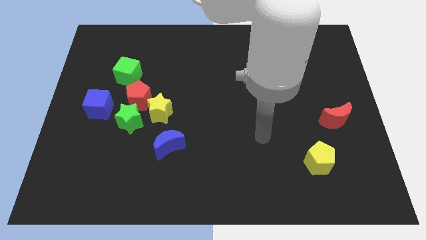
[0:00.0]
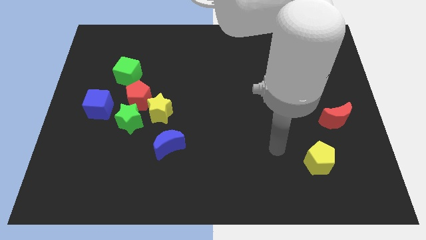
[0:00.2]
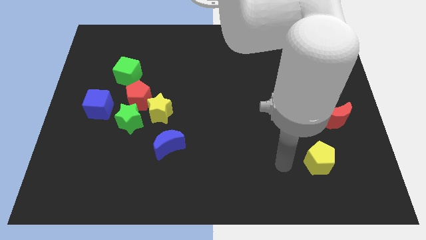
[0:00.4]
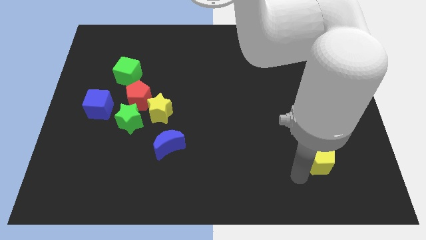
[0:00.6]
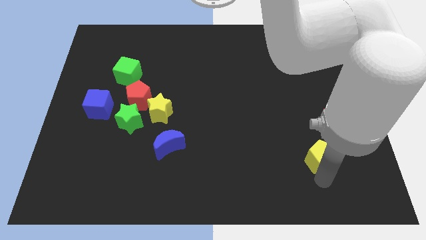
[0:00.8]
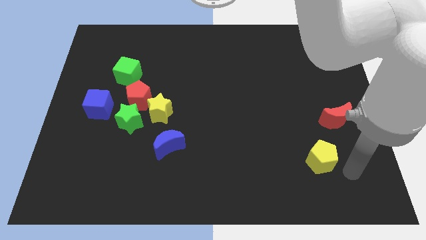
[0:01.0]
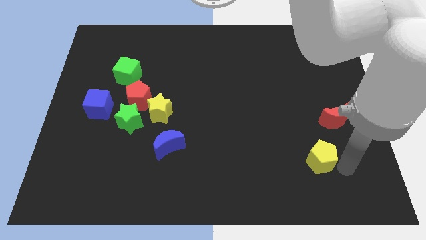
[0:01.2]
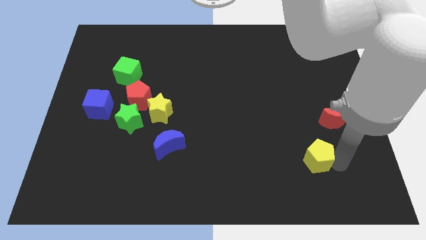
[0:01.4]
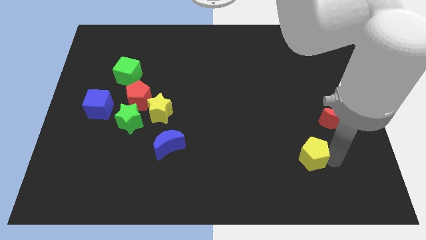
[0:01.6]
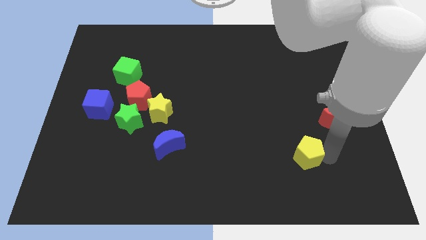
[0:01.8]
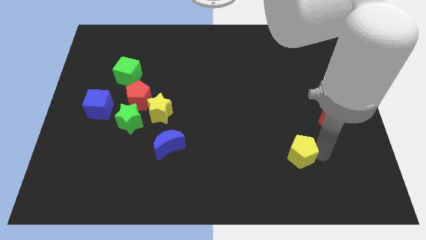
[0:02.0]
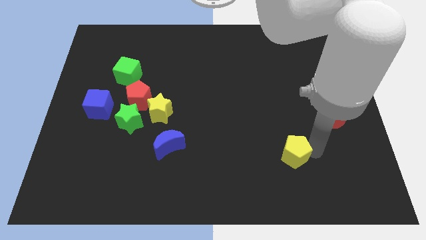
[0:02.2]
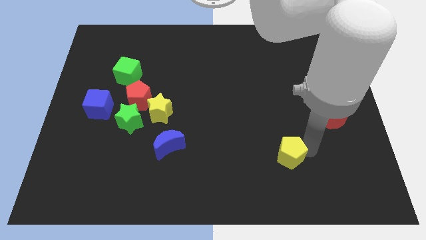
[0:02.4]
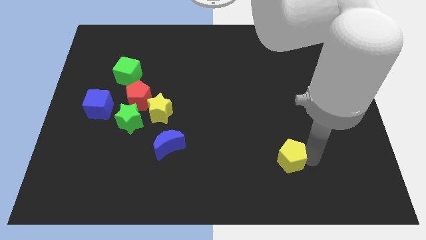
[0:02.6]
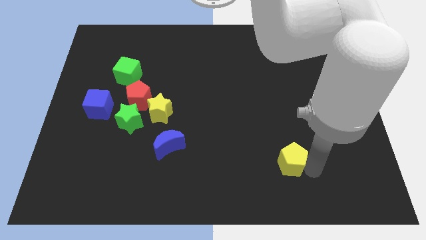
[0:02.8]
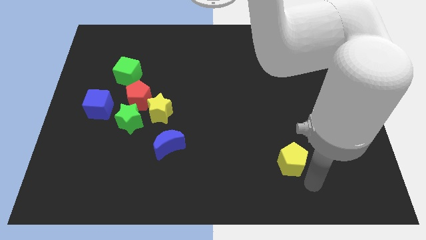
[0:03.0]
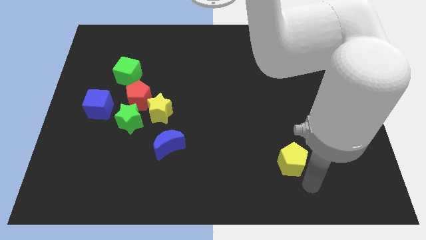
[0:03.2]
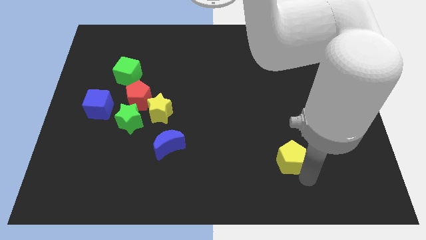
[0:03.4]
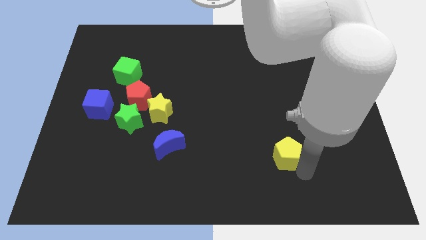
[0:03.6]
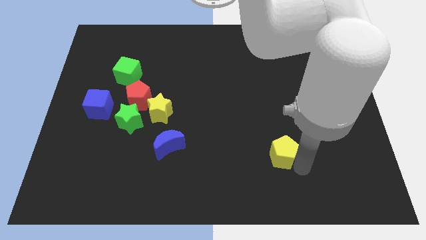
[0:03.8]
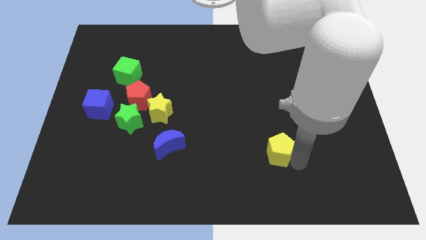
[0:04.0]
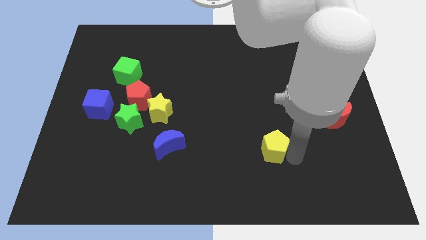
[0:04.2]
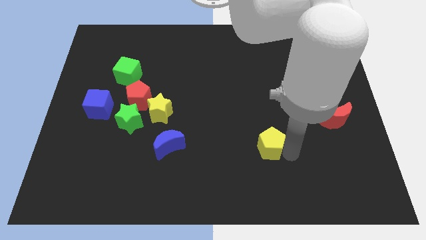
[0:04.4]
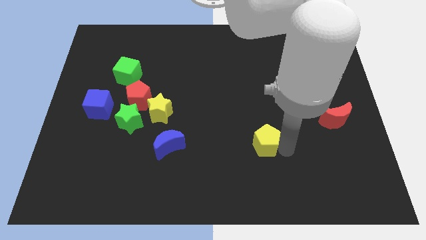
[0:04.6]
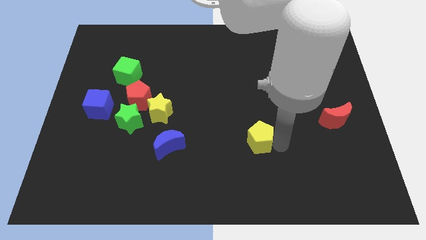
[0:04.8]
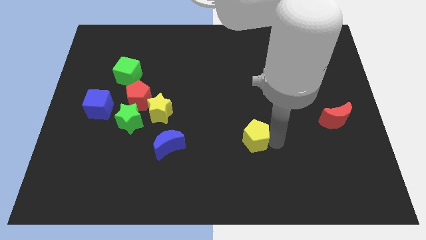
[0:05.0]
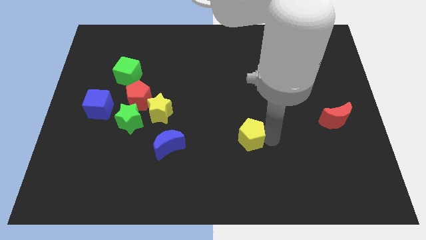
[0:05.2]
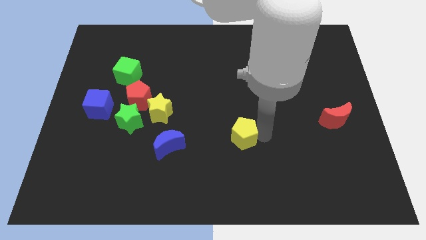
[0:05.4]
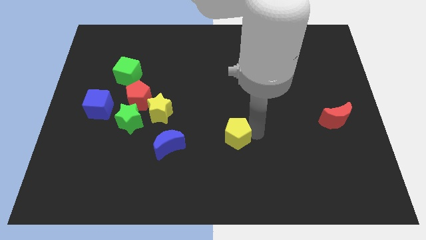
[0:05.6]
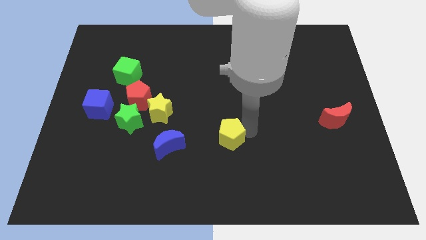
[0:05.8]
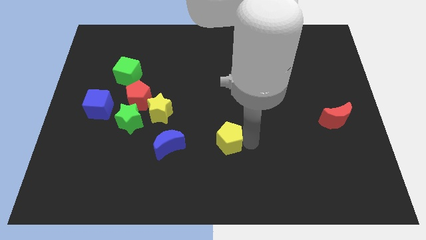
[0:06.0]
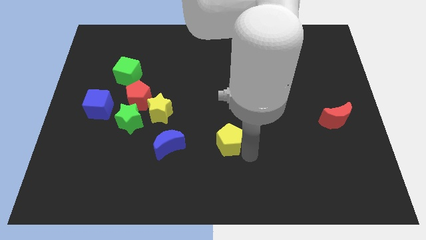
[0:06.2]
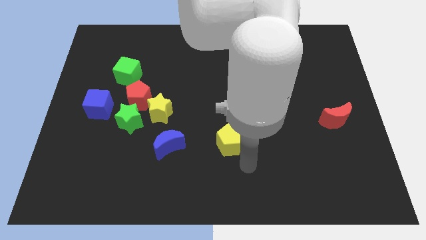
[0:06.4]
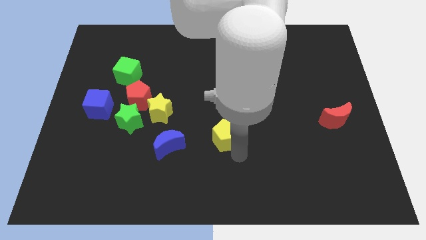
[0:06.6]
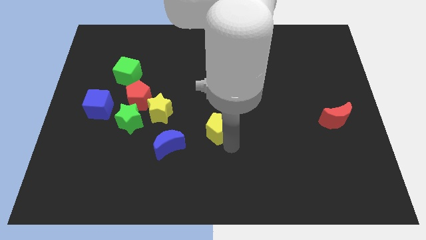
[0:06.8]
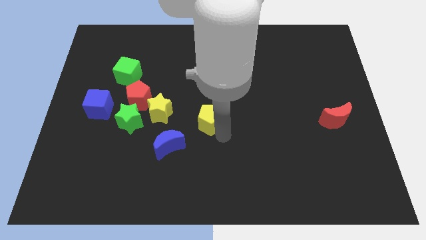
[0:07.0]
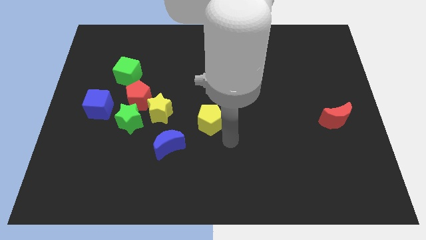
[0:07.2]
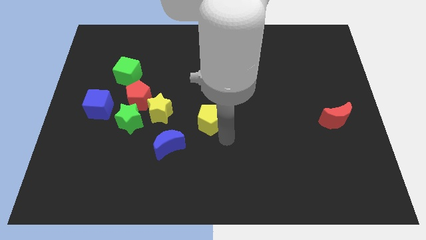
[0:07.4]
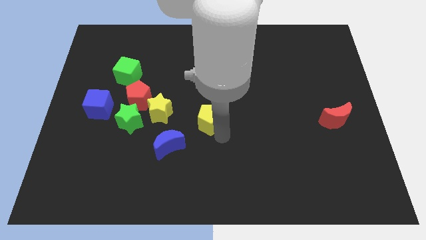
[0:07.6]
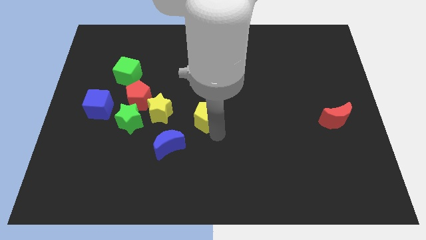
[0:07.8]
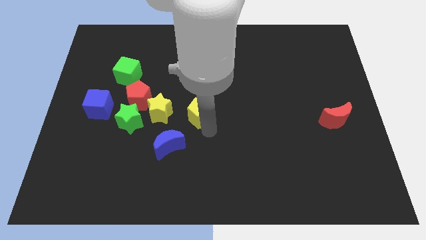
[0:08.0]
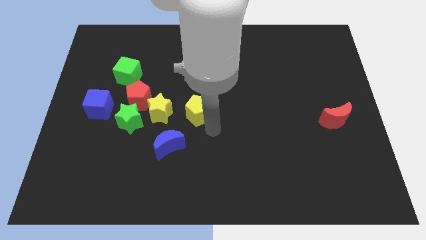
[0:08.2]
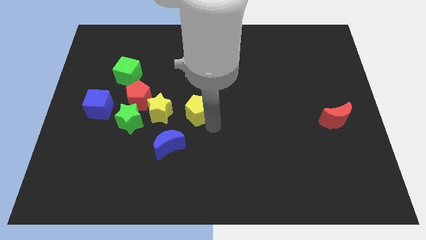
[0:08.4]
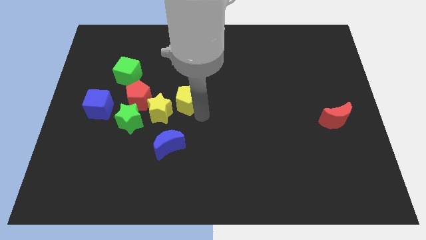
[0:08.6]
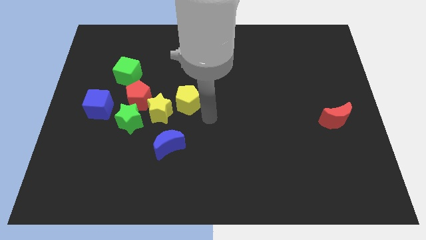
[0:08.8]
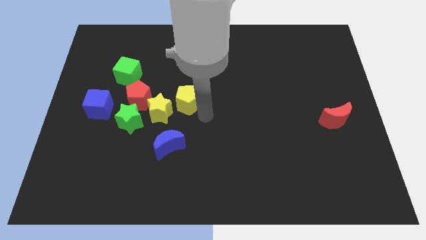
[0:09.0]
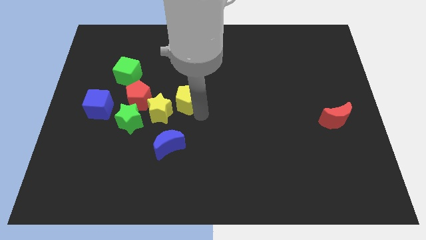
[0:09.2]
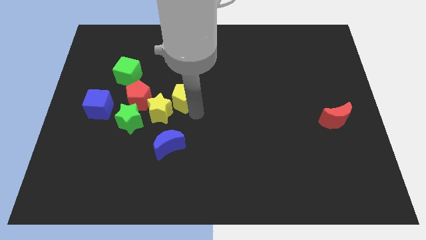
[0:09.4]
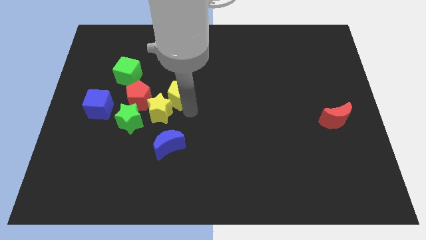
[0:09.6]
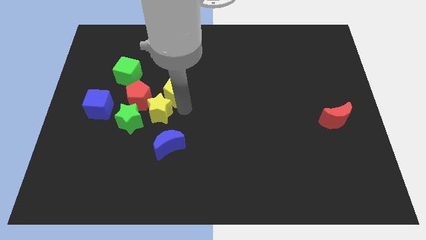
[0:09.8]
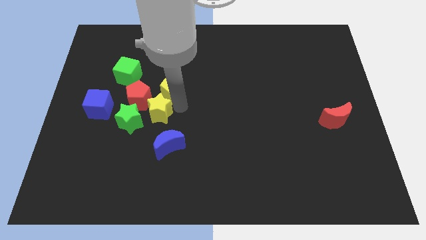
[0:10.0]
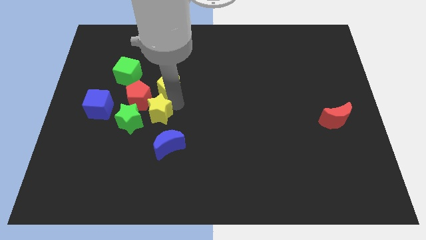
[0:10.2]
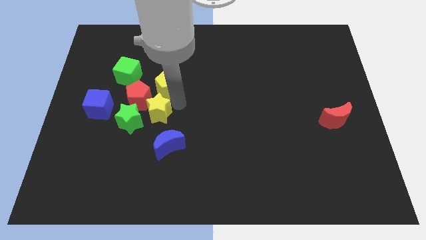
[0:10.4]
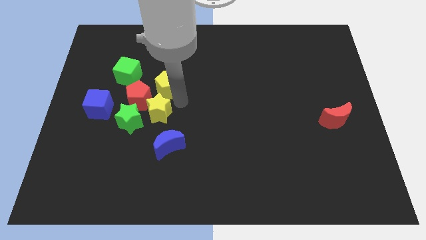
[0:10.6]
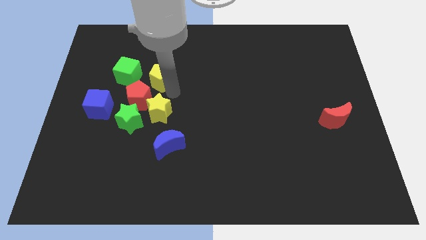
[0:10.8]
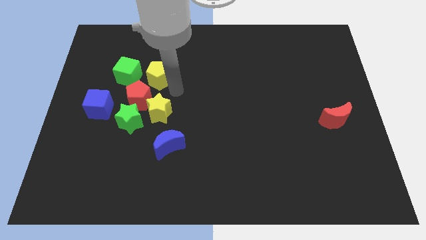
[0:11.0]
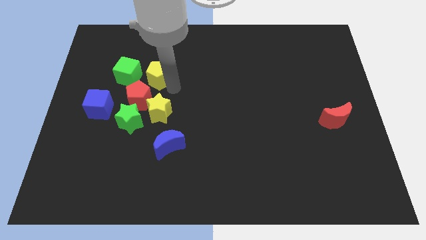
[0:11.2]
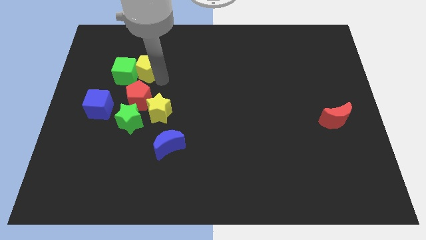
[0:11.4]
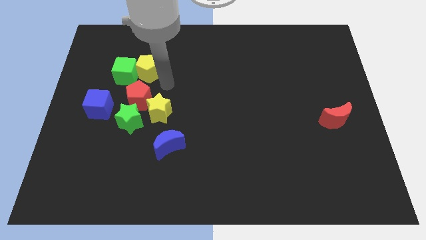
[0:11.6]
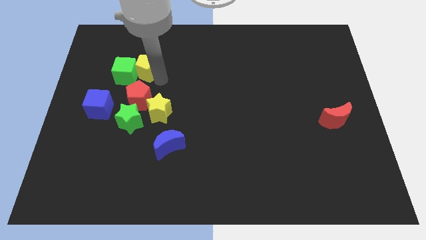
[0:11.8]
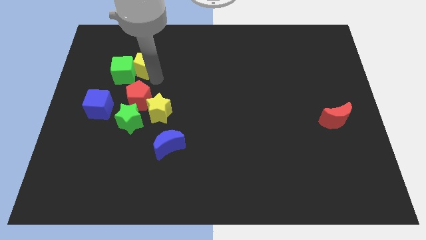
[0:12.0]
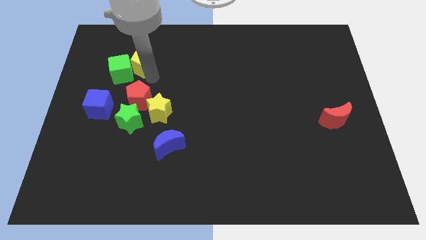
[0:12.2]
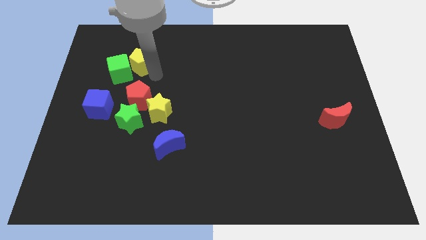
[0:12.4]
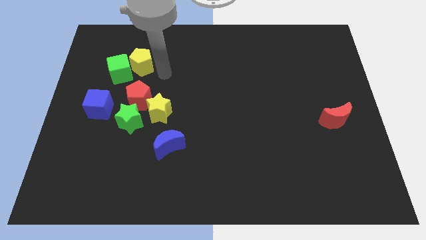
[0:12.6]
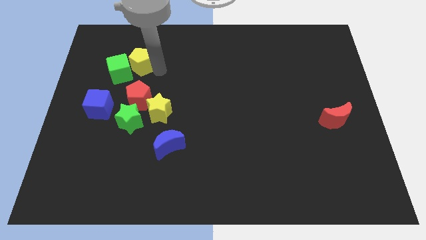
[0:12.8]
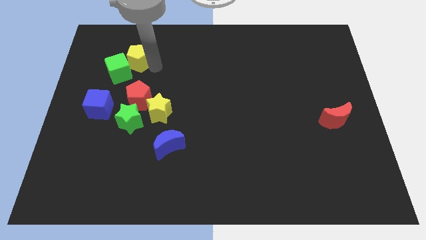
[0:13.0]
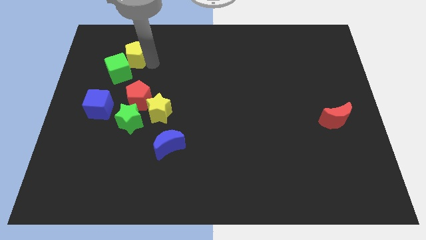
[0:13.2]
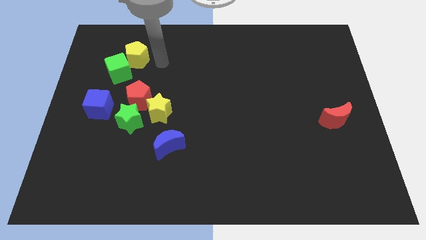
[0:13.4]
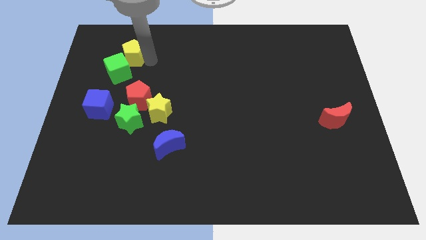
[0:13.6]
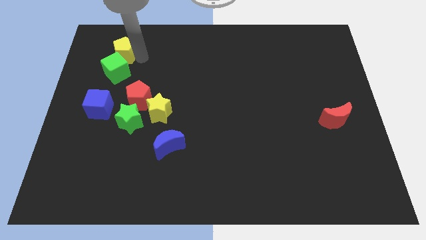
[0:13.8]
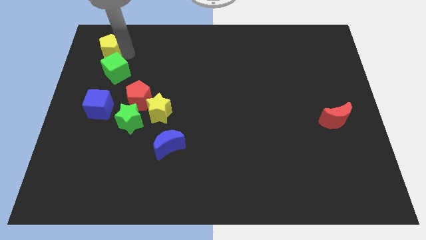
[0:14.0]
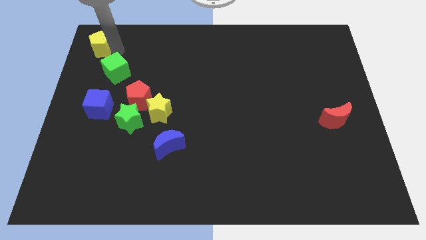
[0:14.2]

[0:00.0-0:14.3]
put the yellow pentagon to the top left
